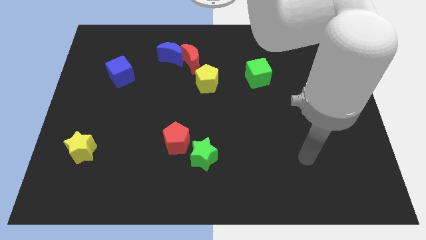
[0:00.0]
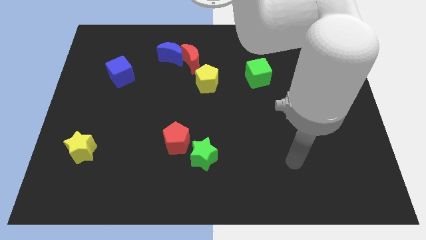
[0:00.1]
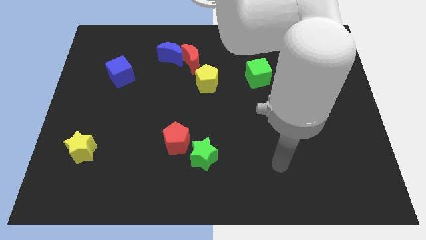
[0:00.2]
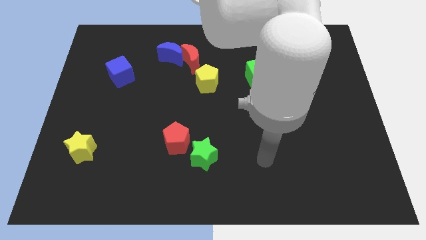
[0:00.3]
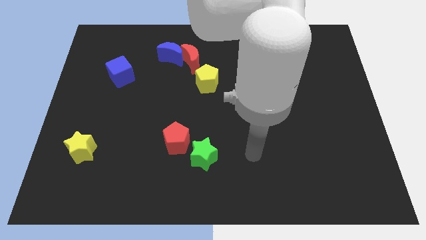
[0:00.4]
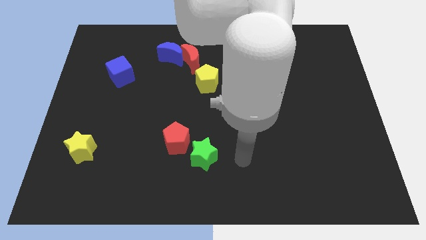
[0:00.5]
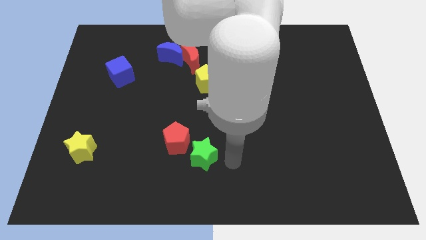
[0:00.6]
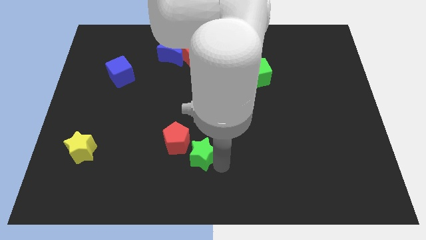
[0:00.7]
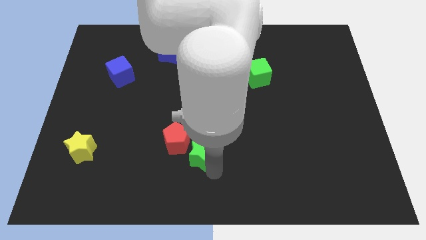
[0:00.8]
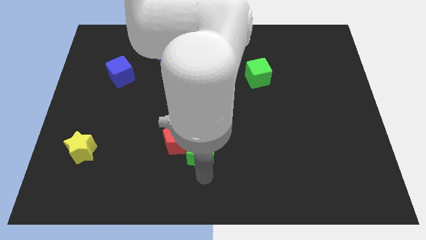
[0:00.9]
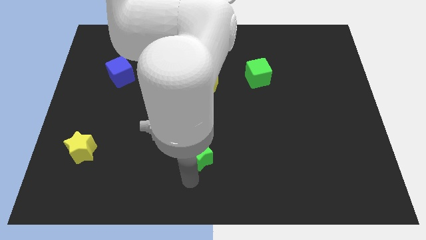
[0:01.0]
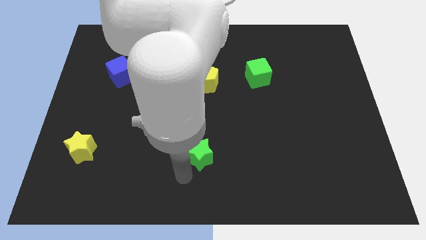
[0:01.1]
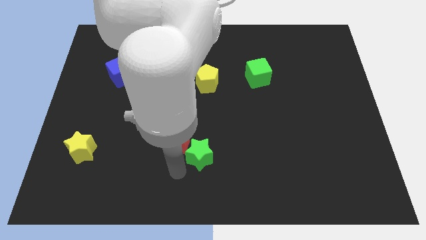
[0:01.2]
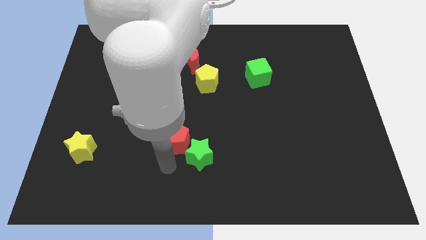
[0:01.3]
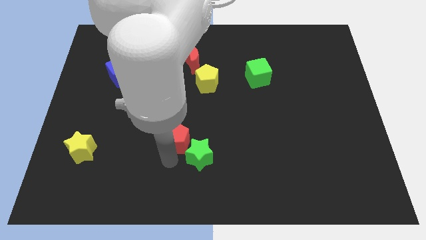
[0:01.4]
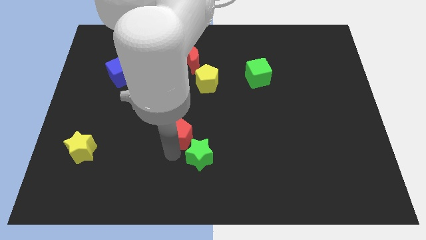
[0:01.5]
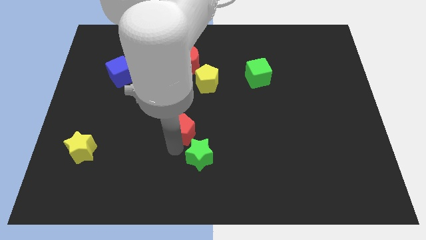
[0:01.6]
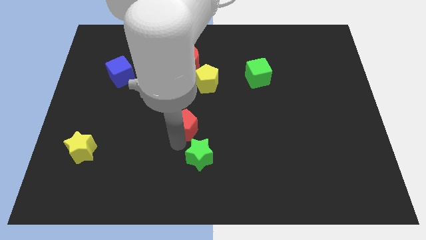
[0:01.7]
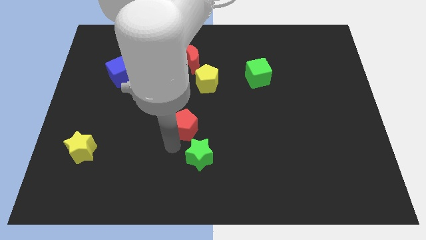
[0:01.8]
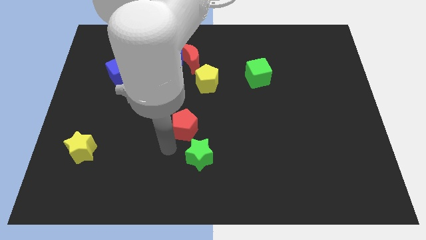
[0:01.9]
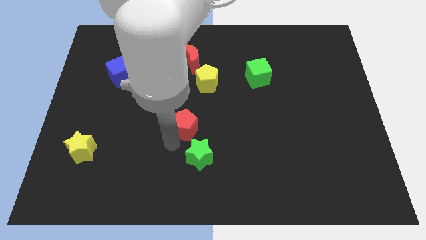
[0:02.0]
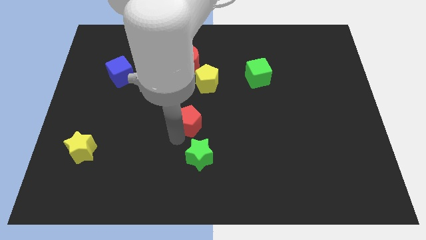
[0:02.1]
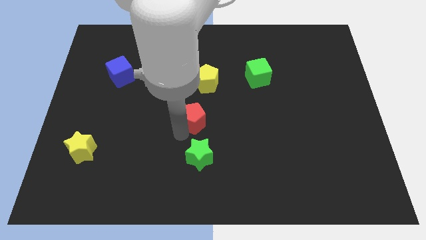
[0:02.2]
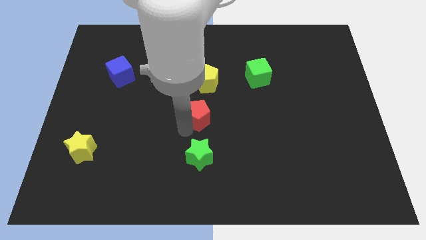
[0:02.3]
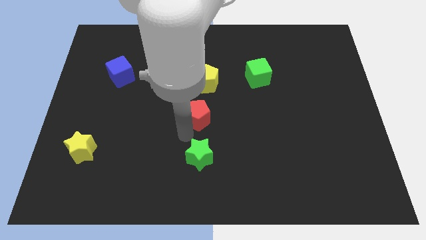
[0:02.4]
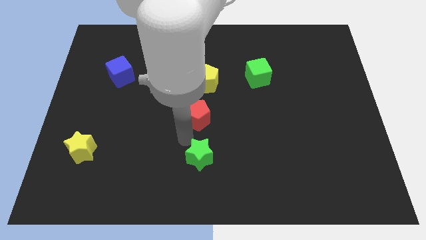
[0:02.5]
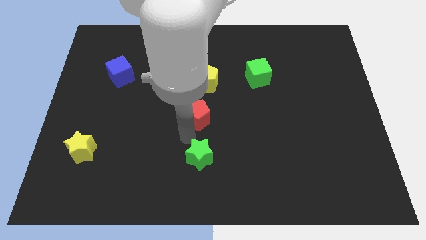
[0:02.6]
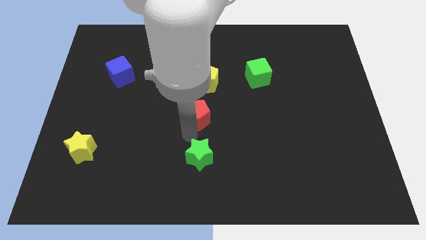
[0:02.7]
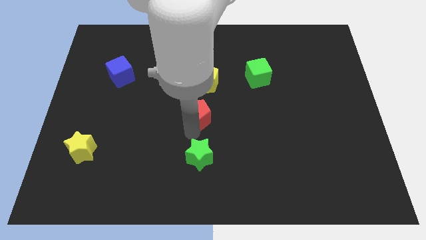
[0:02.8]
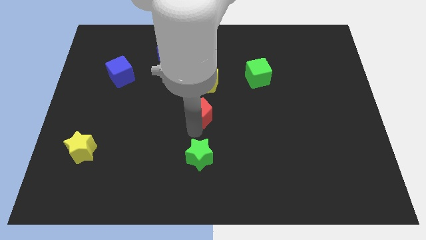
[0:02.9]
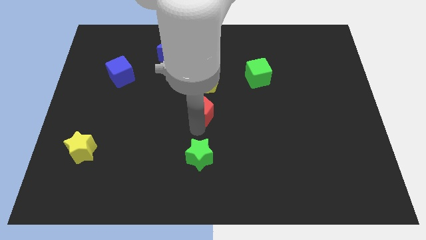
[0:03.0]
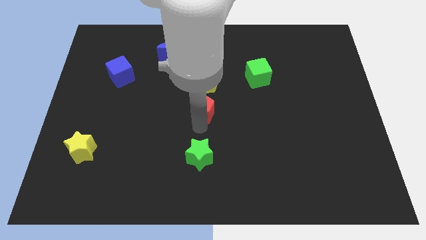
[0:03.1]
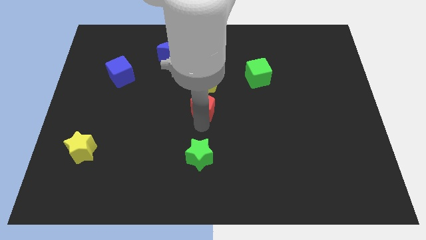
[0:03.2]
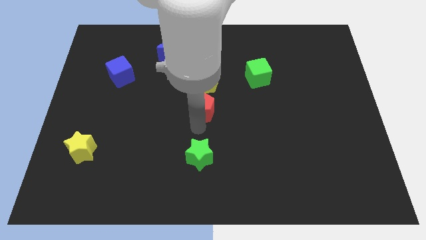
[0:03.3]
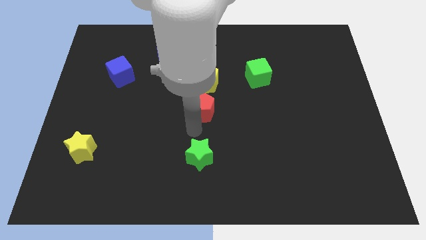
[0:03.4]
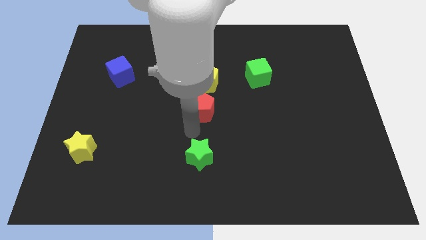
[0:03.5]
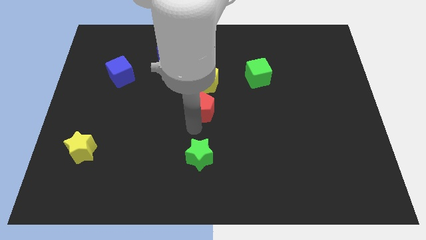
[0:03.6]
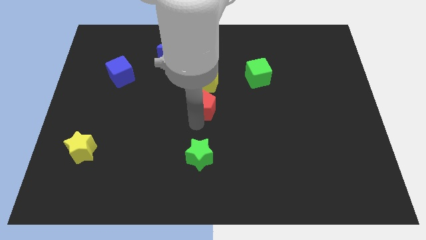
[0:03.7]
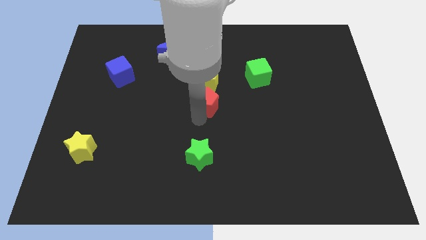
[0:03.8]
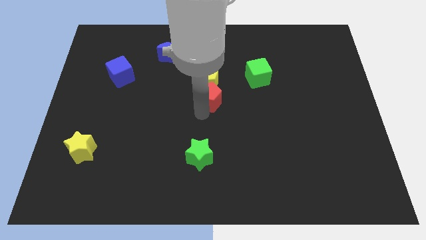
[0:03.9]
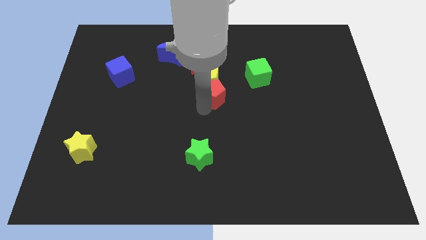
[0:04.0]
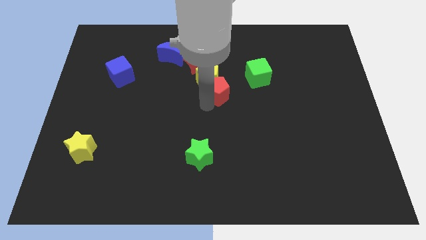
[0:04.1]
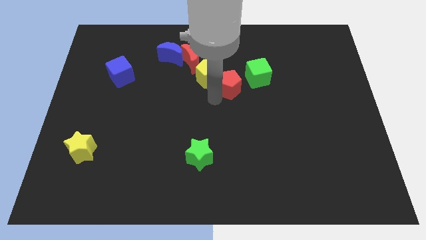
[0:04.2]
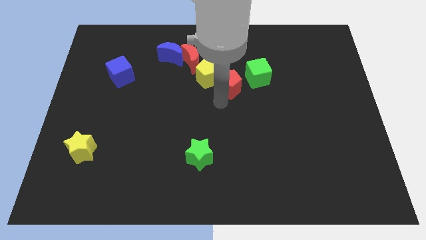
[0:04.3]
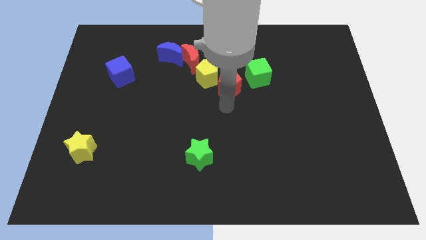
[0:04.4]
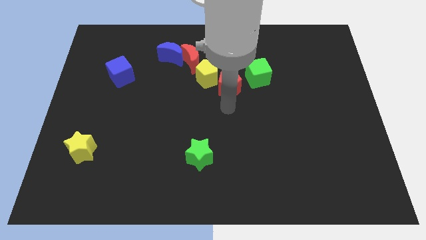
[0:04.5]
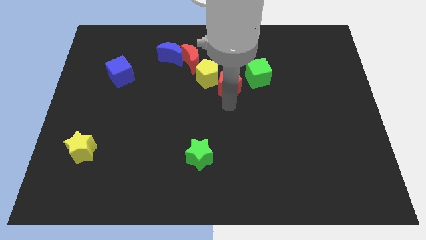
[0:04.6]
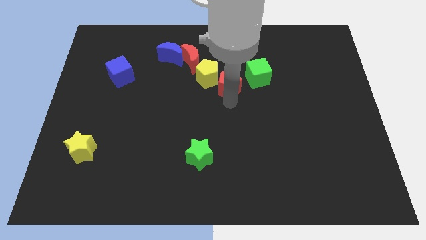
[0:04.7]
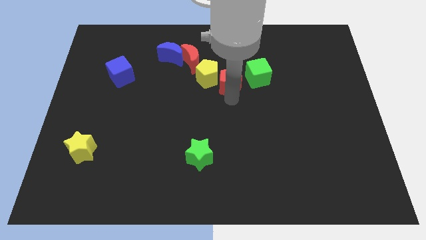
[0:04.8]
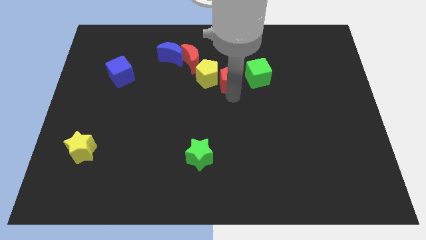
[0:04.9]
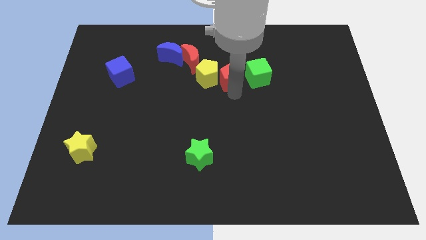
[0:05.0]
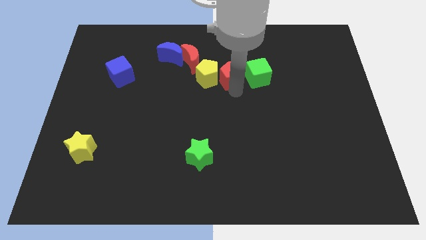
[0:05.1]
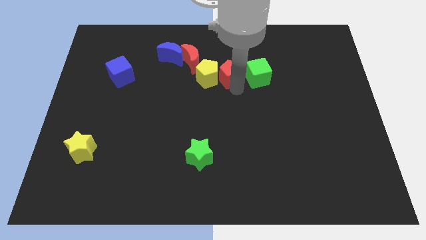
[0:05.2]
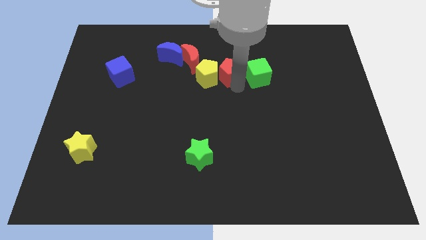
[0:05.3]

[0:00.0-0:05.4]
push the red pentagon to the right side of the red moon

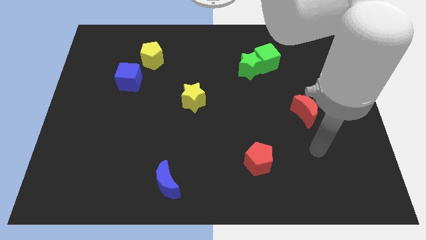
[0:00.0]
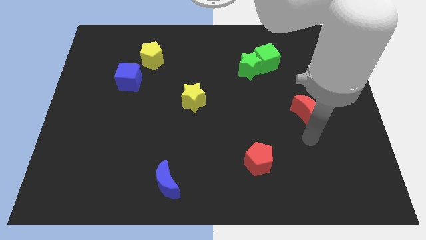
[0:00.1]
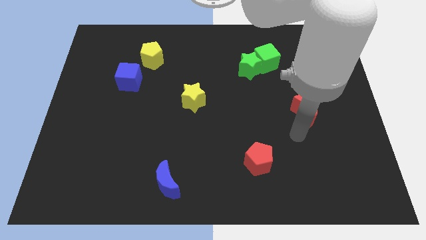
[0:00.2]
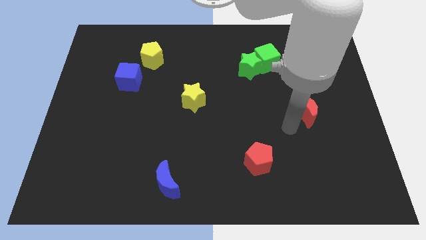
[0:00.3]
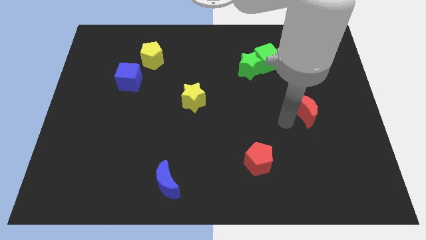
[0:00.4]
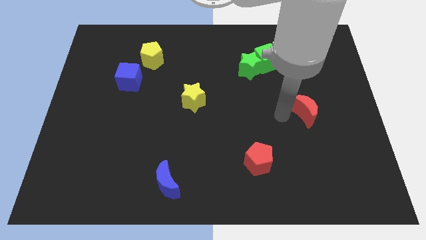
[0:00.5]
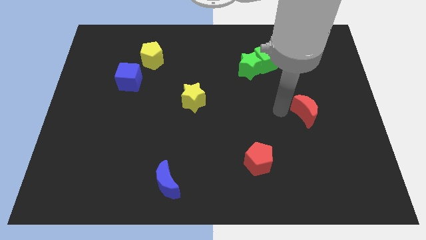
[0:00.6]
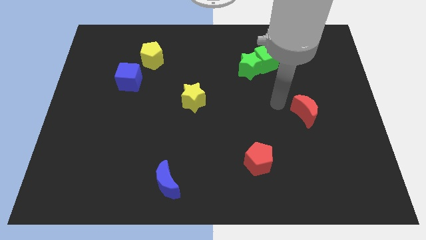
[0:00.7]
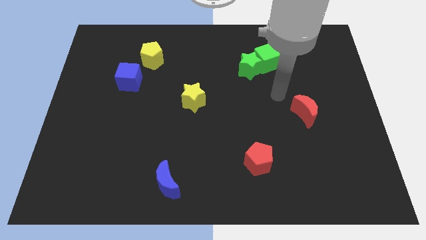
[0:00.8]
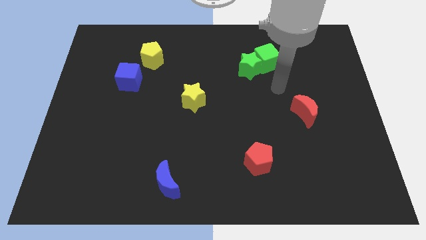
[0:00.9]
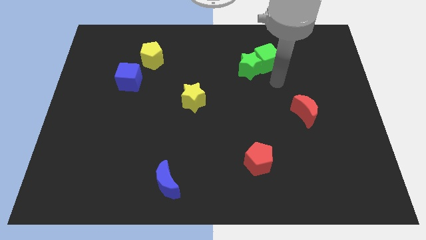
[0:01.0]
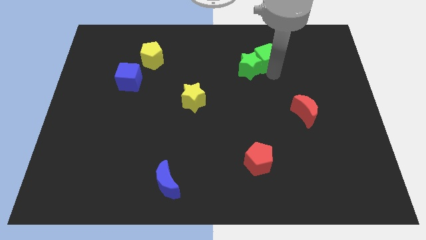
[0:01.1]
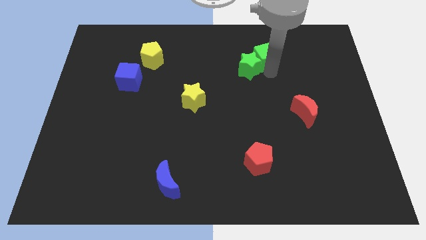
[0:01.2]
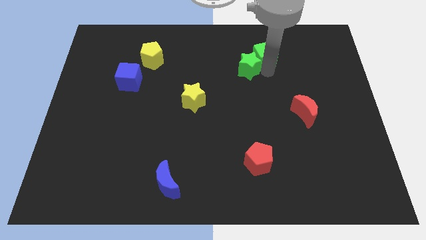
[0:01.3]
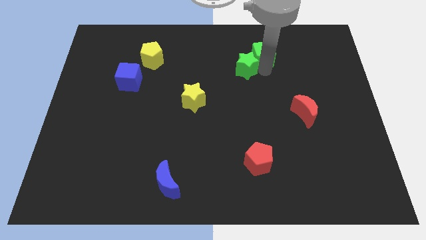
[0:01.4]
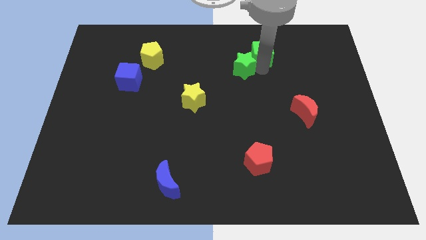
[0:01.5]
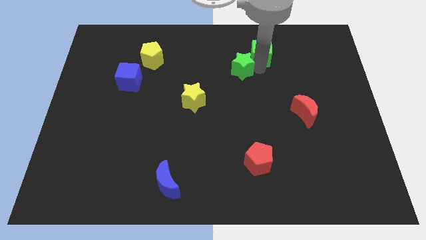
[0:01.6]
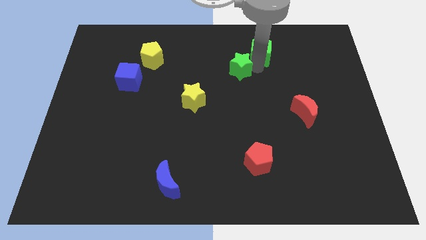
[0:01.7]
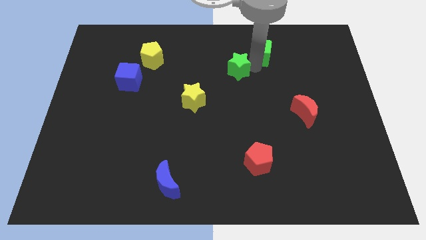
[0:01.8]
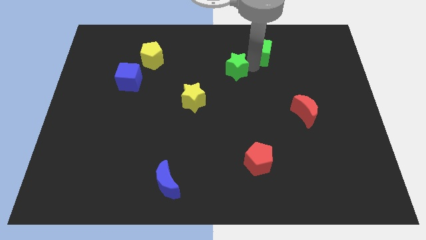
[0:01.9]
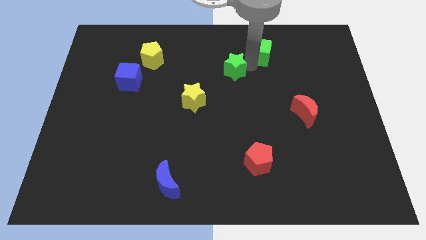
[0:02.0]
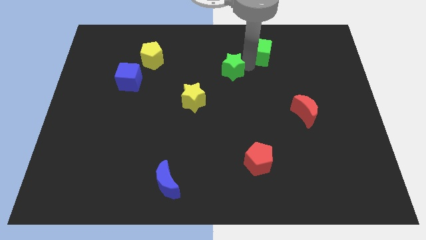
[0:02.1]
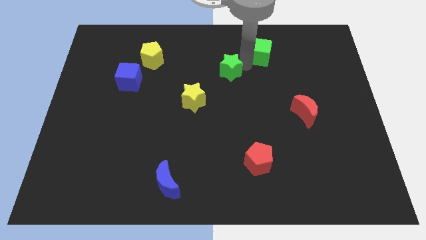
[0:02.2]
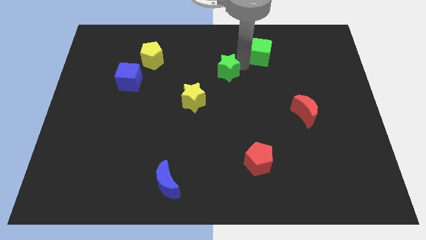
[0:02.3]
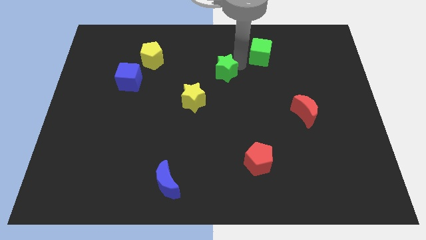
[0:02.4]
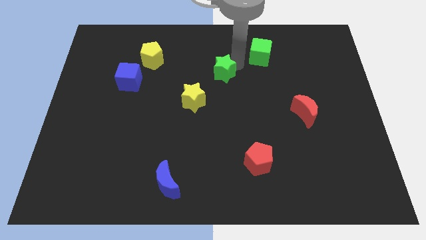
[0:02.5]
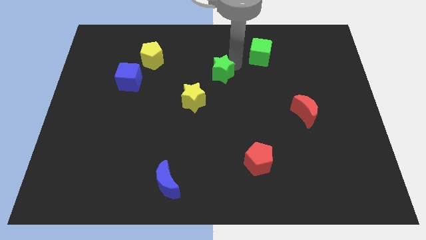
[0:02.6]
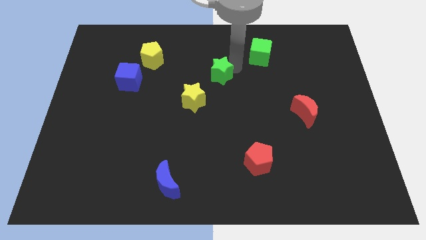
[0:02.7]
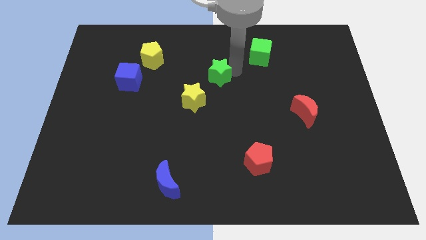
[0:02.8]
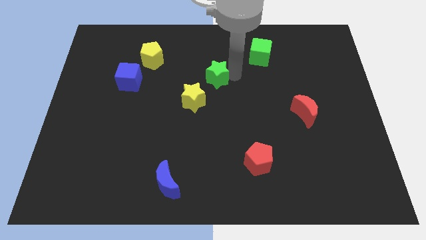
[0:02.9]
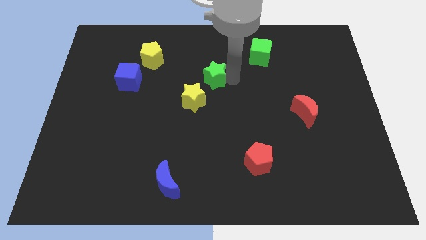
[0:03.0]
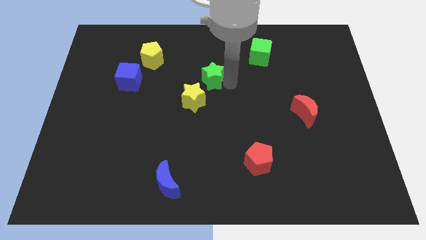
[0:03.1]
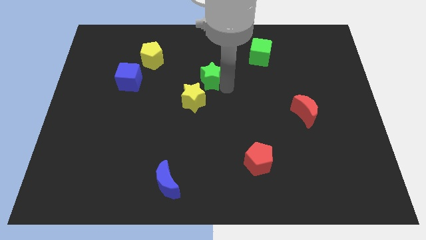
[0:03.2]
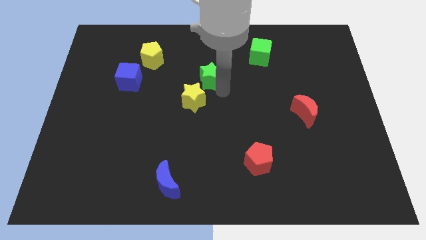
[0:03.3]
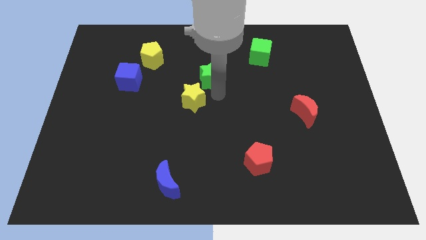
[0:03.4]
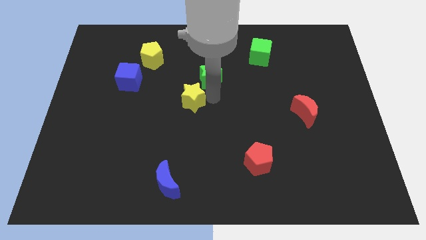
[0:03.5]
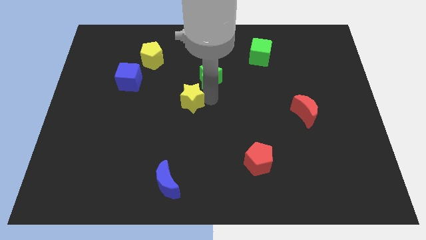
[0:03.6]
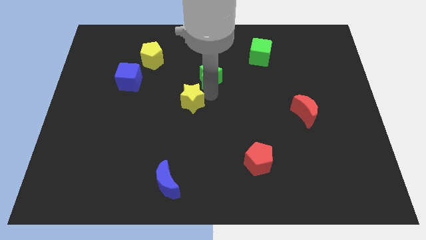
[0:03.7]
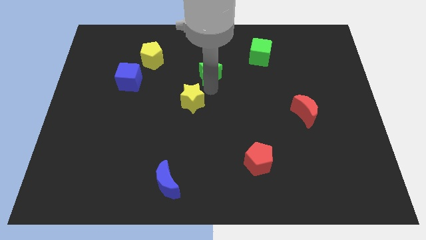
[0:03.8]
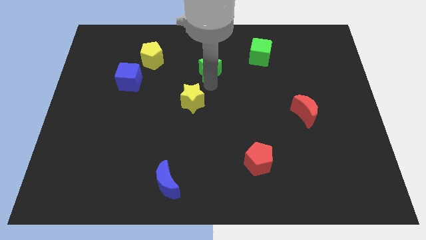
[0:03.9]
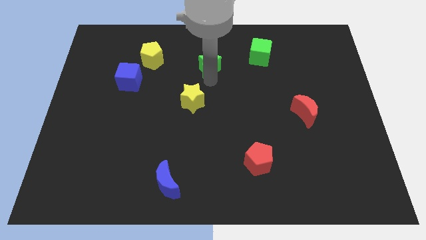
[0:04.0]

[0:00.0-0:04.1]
slide the green star to the right of the yellow pentagon
